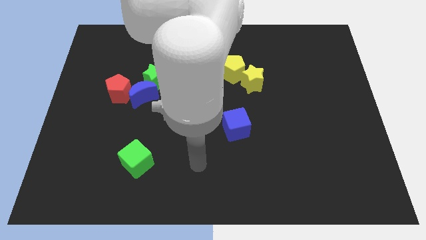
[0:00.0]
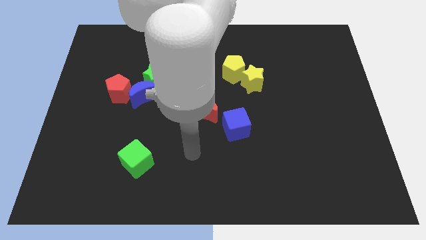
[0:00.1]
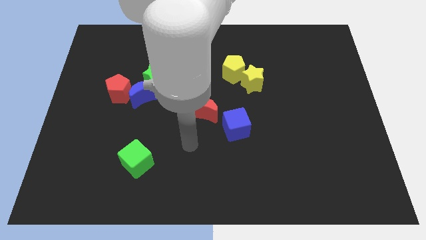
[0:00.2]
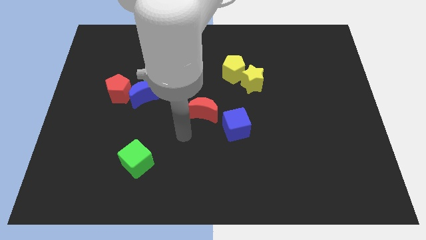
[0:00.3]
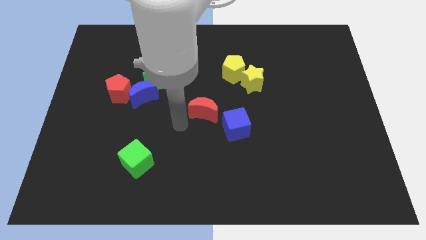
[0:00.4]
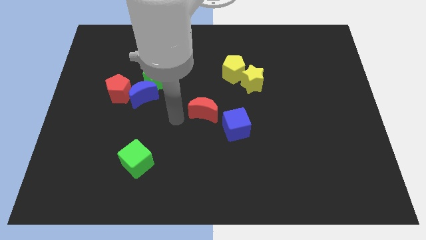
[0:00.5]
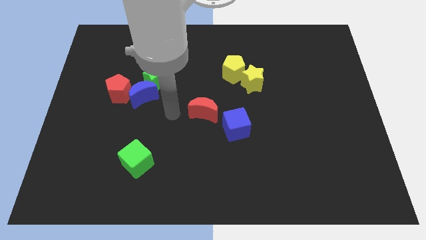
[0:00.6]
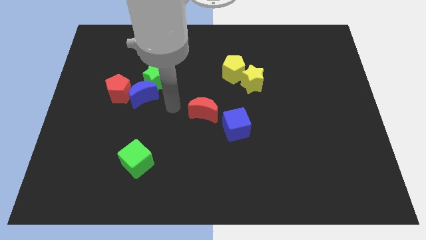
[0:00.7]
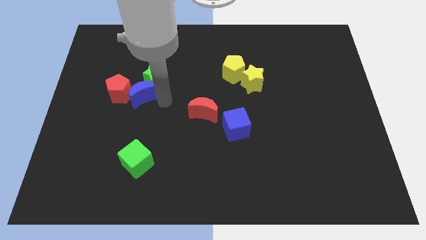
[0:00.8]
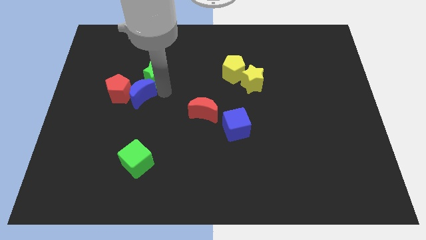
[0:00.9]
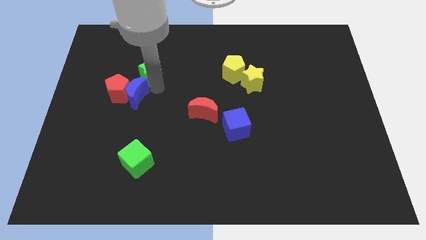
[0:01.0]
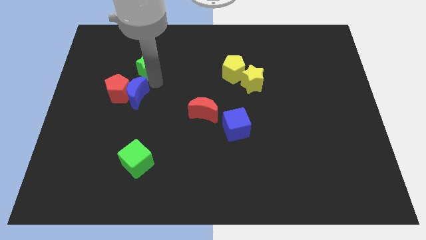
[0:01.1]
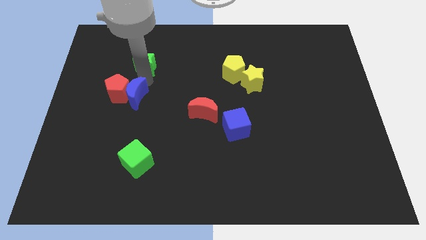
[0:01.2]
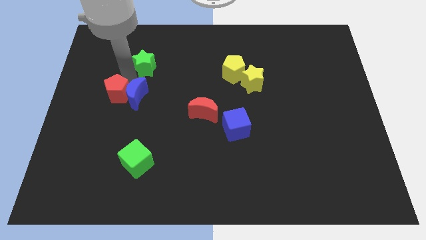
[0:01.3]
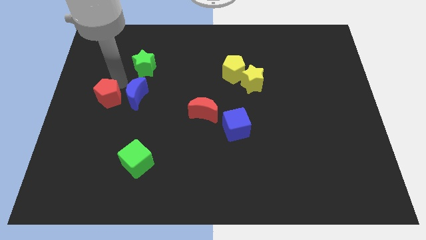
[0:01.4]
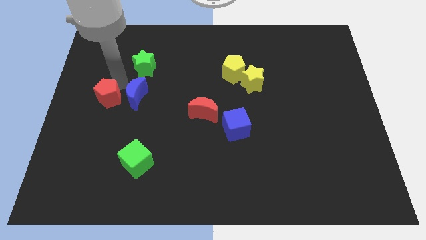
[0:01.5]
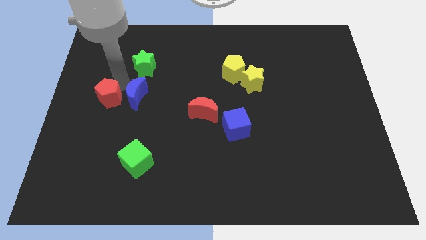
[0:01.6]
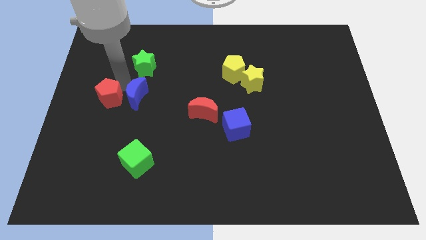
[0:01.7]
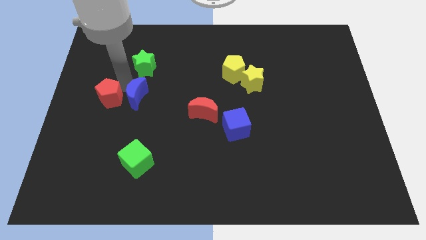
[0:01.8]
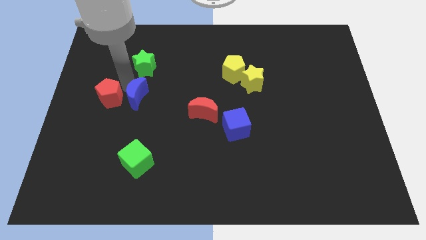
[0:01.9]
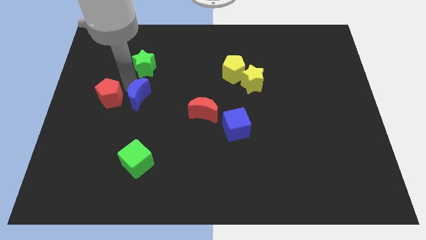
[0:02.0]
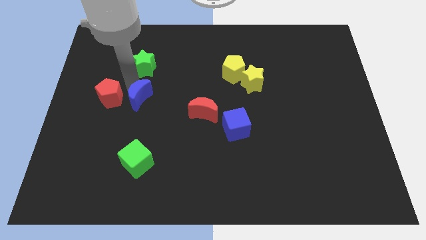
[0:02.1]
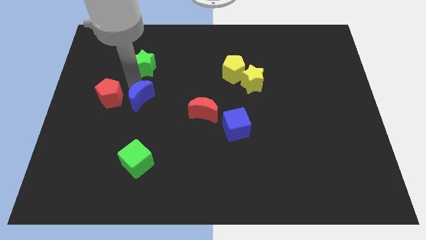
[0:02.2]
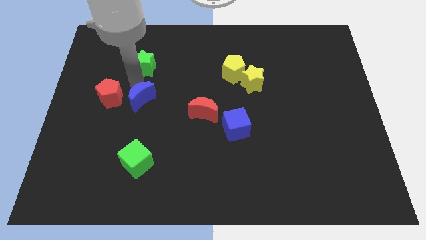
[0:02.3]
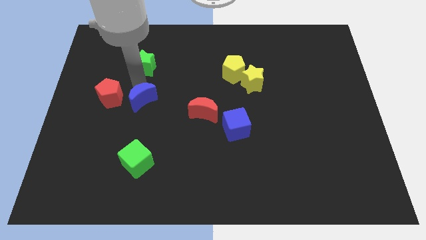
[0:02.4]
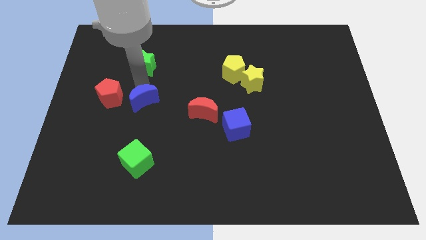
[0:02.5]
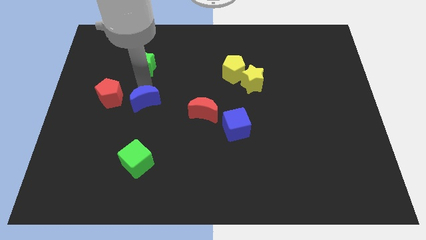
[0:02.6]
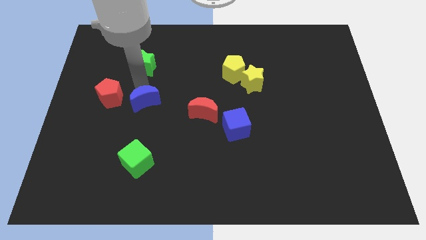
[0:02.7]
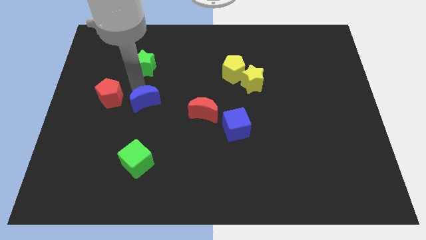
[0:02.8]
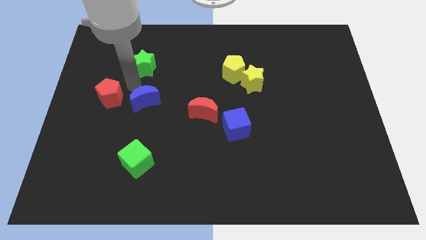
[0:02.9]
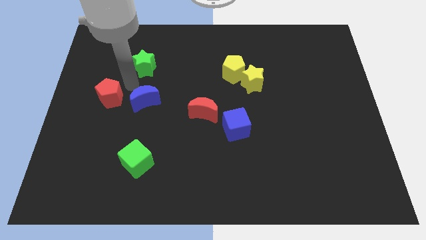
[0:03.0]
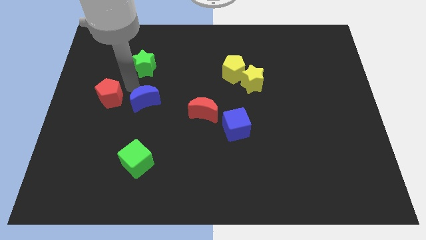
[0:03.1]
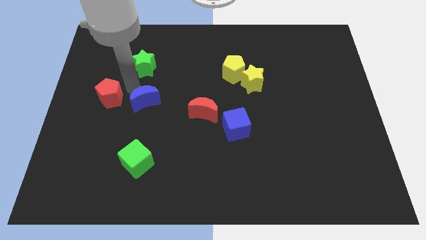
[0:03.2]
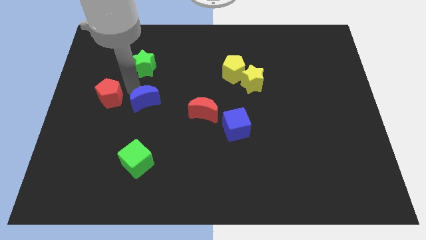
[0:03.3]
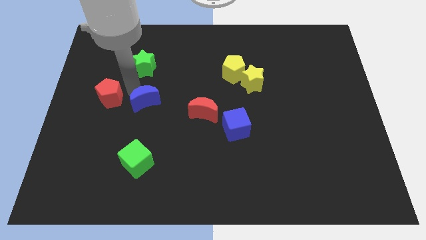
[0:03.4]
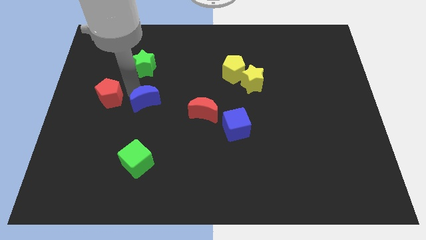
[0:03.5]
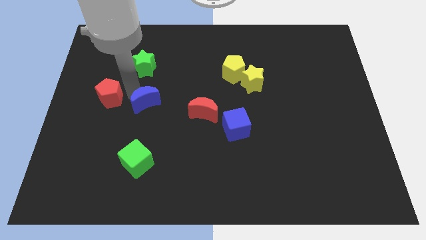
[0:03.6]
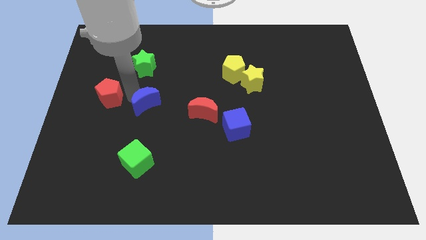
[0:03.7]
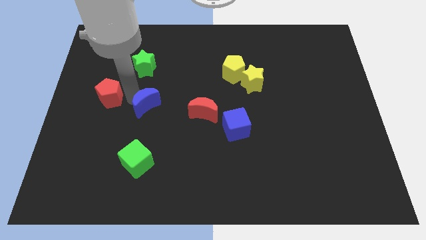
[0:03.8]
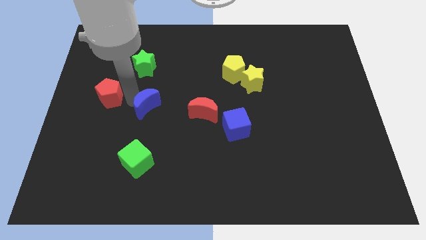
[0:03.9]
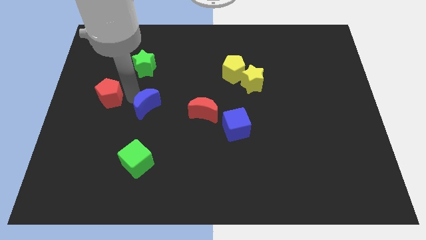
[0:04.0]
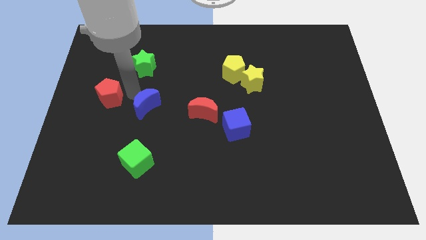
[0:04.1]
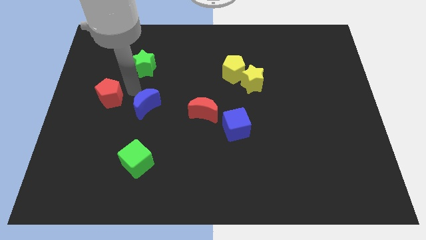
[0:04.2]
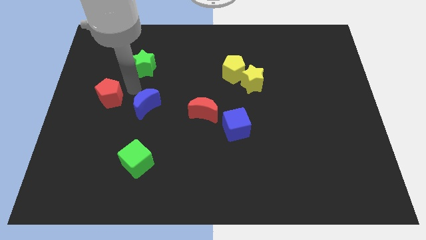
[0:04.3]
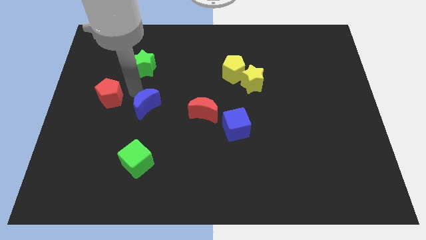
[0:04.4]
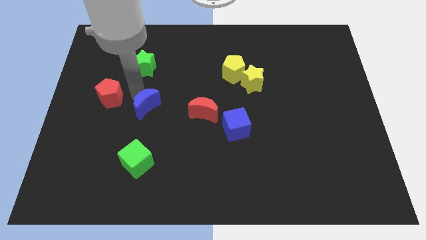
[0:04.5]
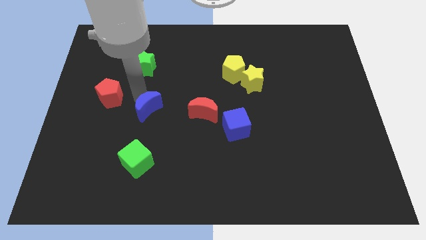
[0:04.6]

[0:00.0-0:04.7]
move the blue moon away from the green star and red pentagon

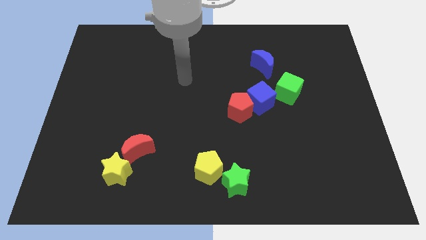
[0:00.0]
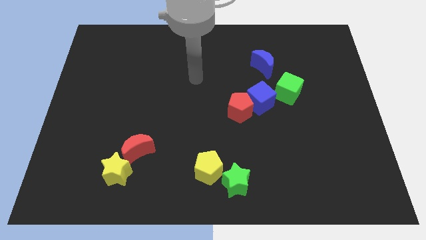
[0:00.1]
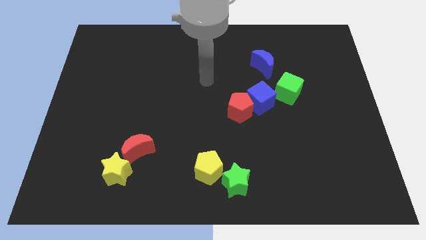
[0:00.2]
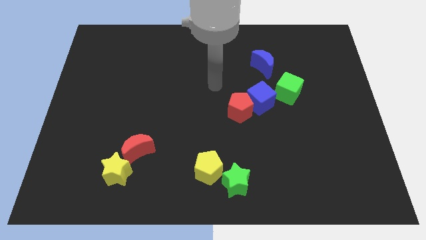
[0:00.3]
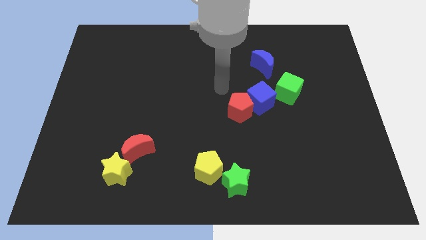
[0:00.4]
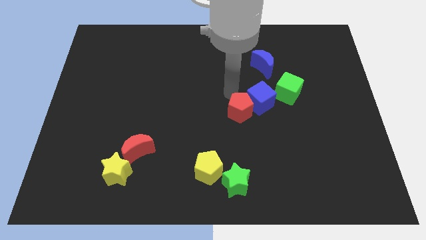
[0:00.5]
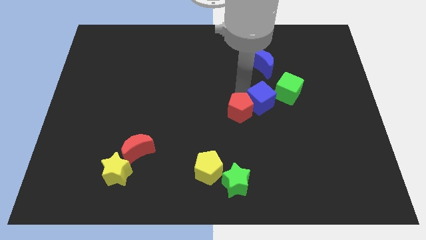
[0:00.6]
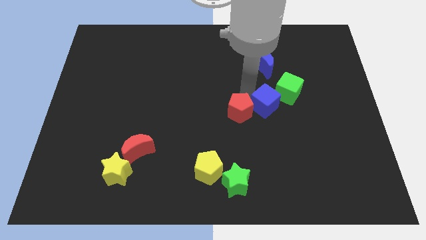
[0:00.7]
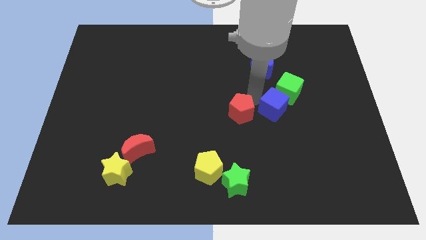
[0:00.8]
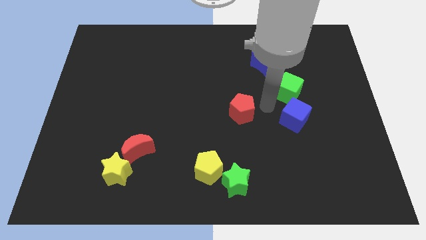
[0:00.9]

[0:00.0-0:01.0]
separate the red pentagon from the blue cube

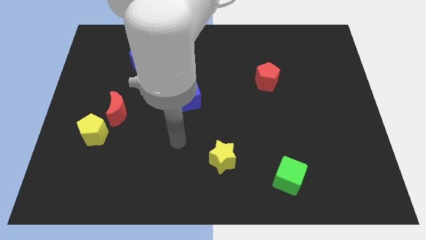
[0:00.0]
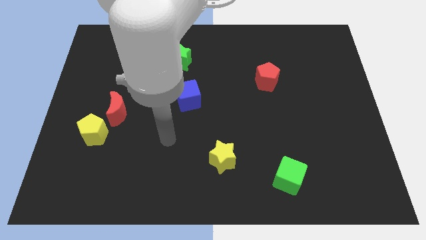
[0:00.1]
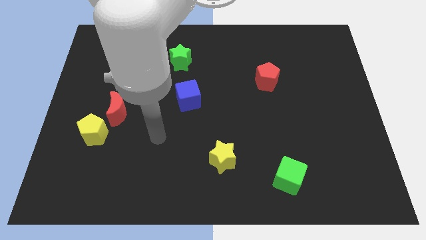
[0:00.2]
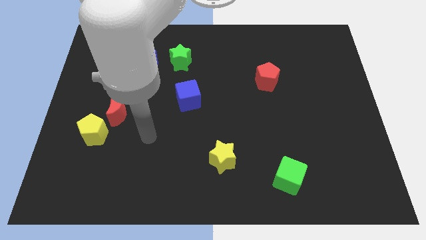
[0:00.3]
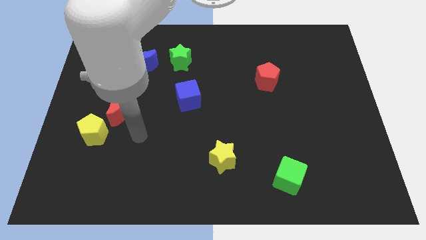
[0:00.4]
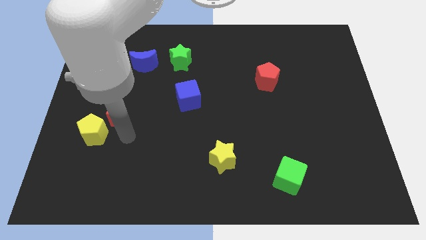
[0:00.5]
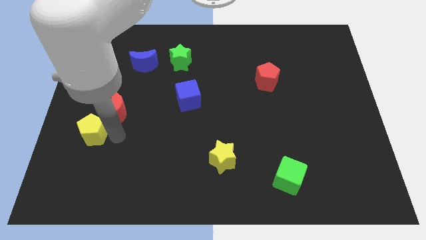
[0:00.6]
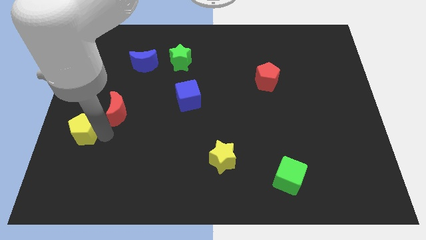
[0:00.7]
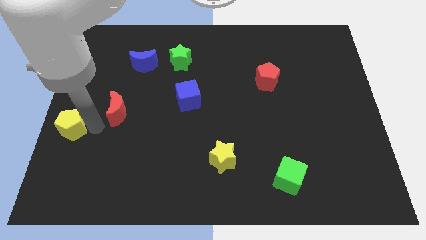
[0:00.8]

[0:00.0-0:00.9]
pull the red moon apart from the yellow pentagon

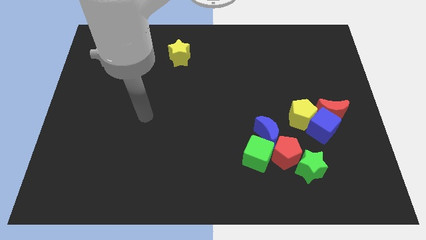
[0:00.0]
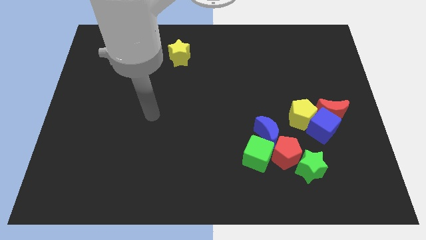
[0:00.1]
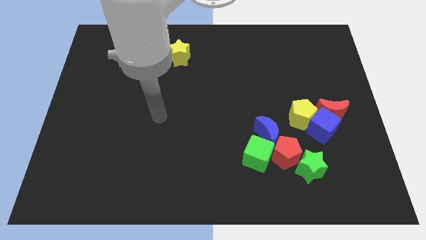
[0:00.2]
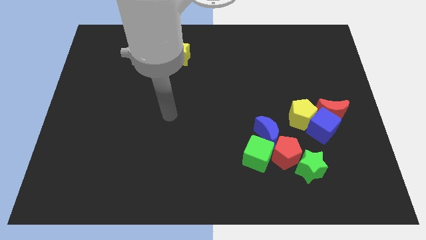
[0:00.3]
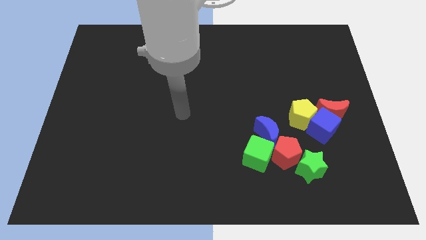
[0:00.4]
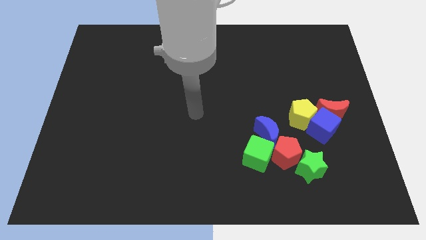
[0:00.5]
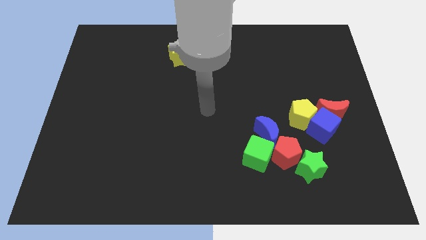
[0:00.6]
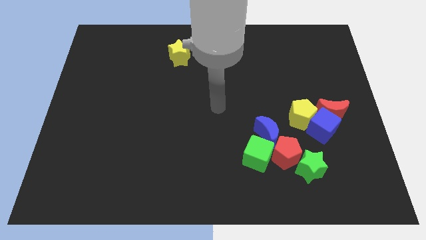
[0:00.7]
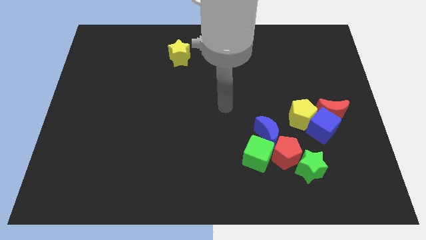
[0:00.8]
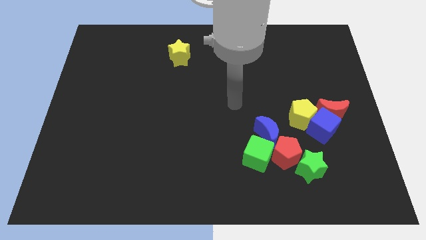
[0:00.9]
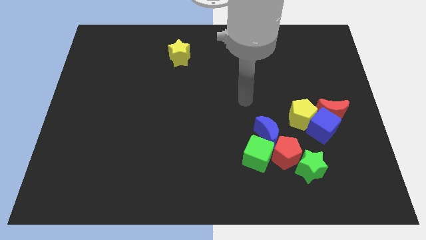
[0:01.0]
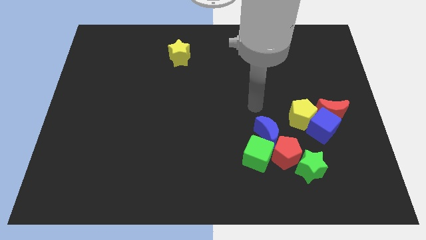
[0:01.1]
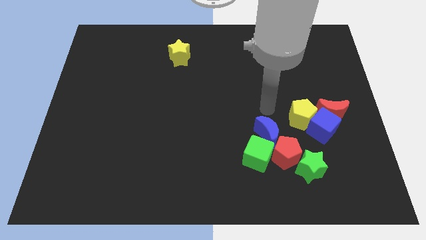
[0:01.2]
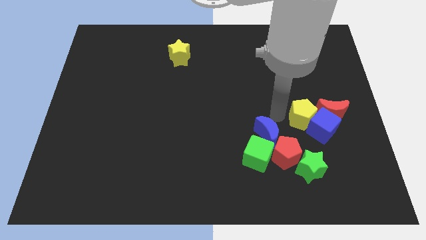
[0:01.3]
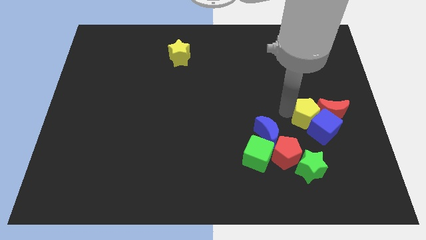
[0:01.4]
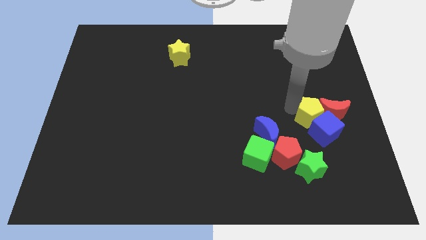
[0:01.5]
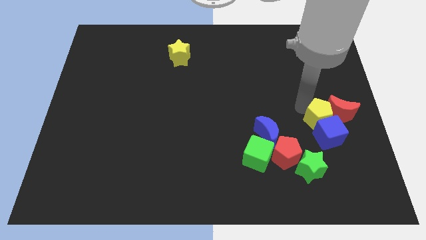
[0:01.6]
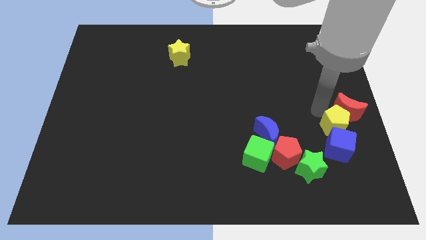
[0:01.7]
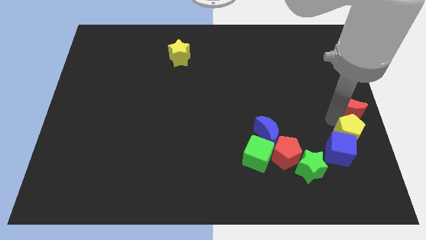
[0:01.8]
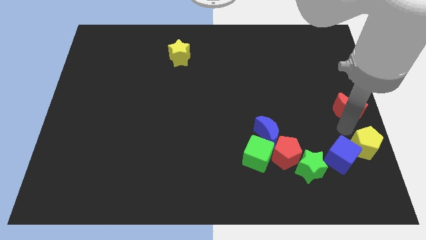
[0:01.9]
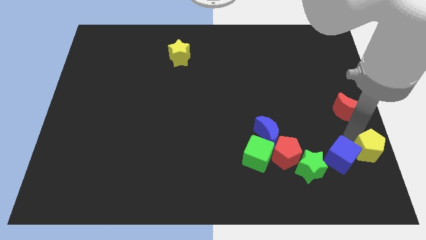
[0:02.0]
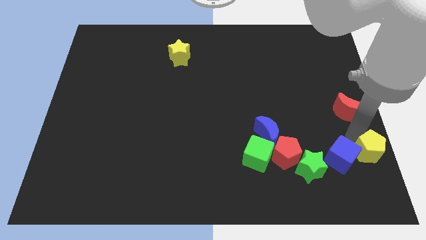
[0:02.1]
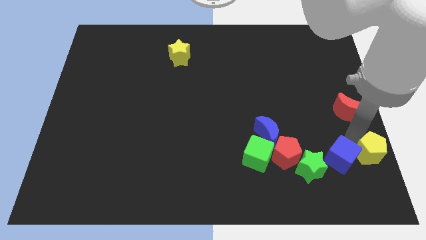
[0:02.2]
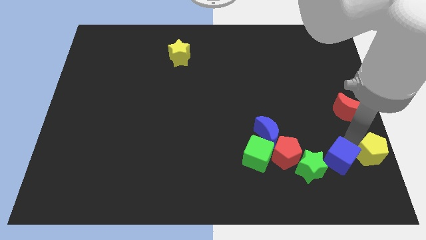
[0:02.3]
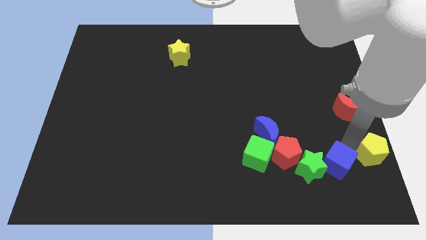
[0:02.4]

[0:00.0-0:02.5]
pull the blue cube apart from the red moon and yellow pentagon

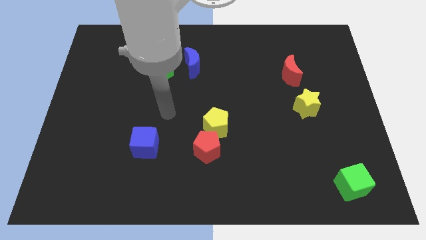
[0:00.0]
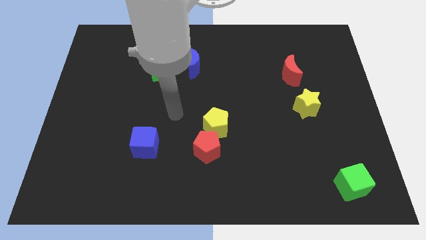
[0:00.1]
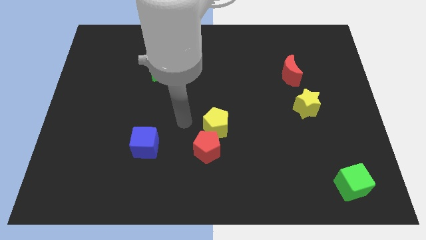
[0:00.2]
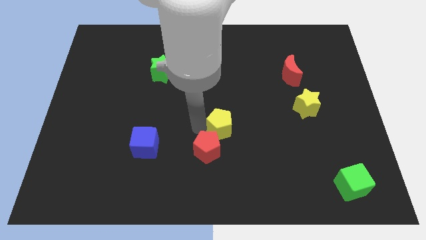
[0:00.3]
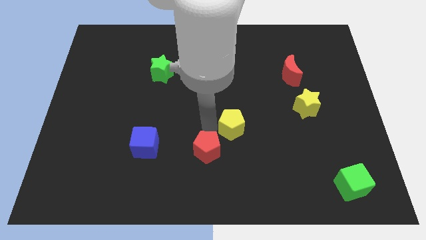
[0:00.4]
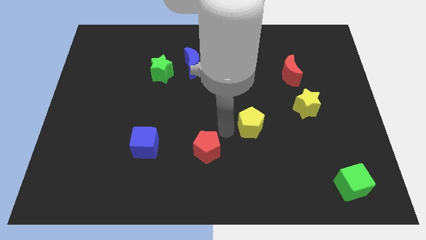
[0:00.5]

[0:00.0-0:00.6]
move the red pentagon away from the yellow pentagon
